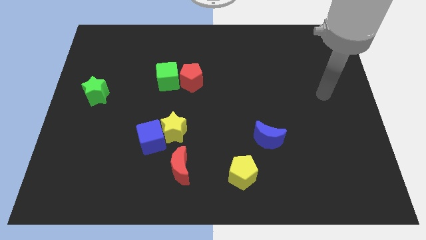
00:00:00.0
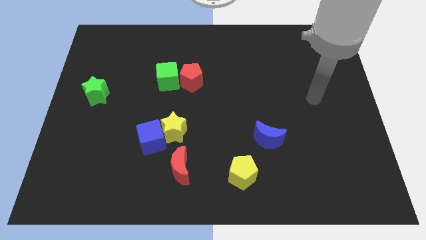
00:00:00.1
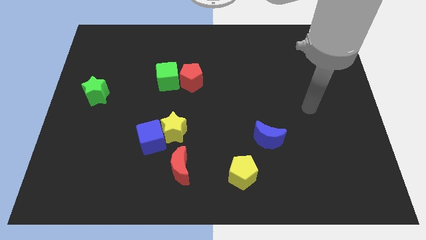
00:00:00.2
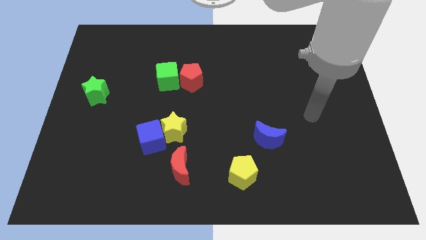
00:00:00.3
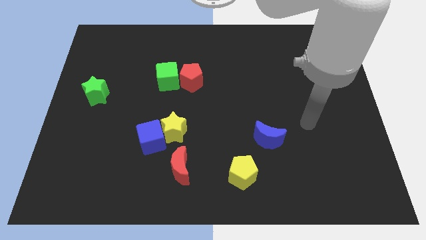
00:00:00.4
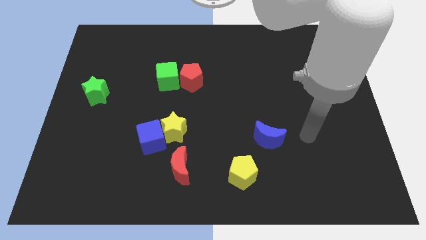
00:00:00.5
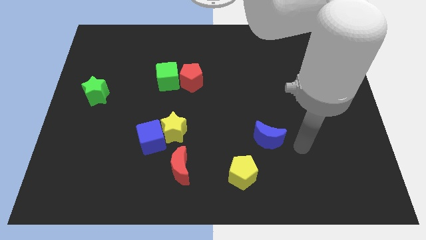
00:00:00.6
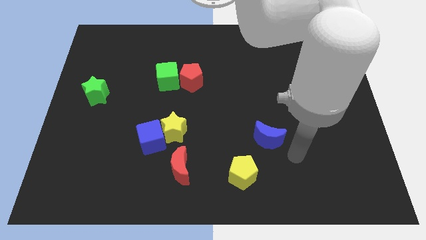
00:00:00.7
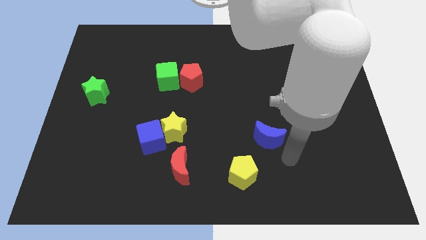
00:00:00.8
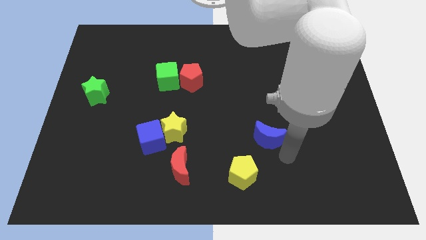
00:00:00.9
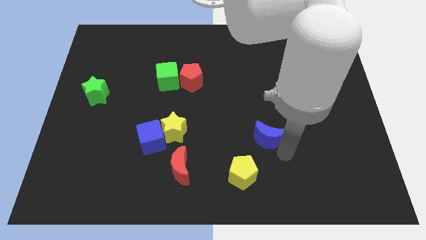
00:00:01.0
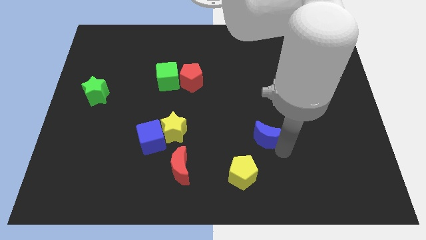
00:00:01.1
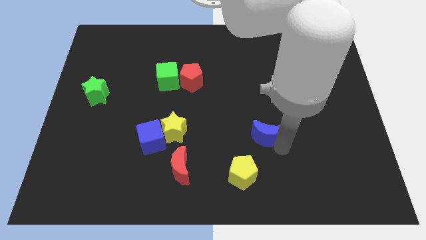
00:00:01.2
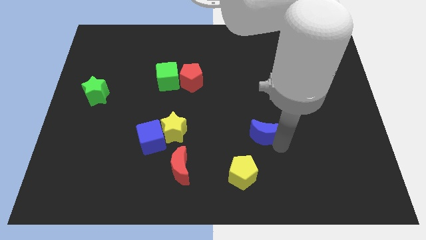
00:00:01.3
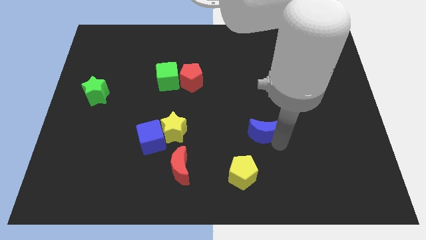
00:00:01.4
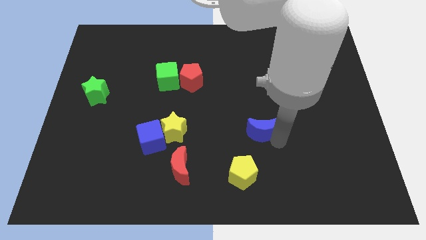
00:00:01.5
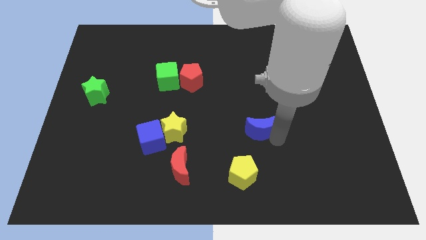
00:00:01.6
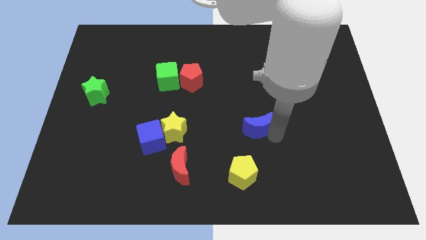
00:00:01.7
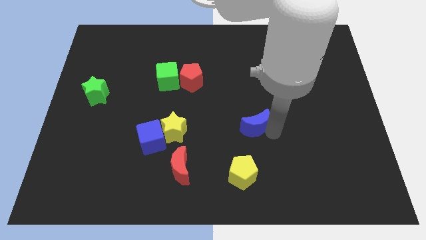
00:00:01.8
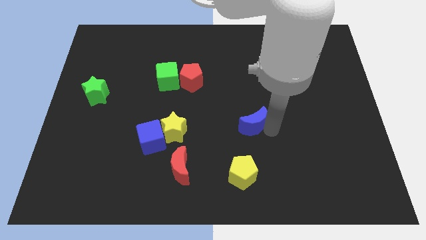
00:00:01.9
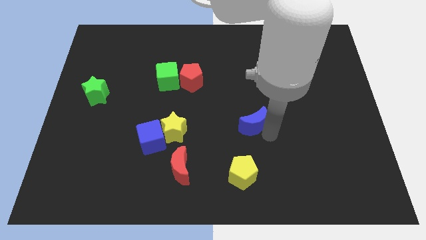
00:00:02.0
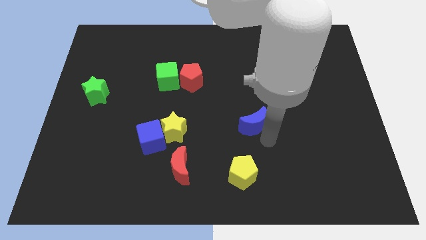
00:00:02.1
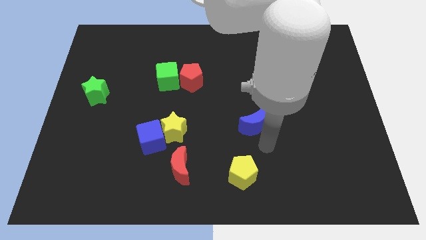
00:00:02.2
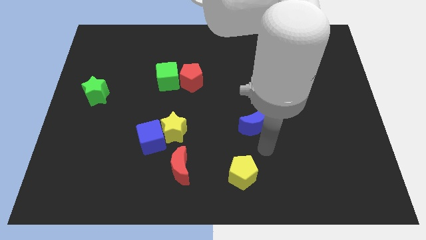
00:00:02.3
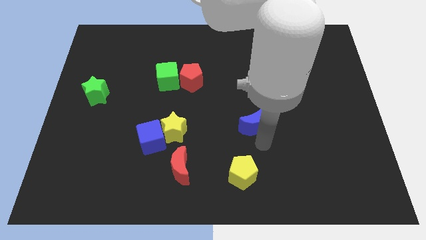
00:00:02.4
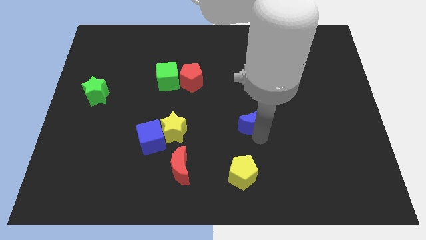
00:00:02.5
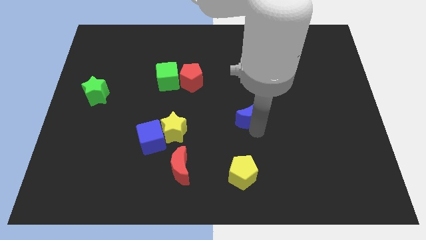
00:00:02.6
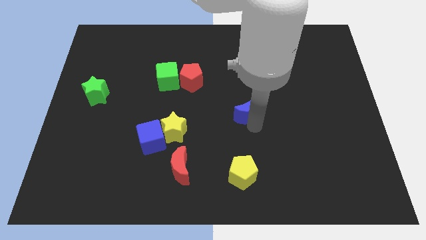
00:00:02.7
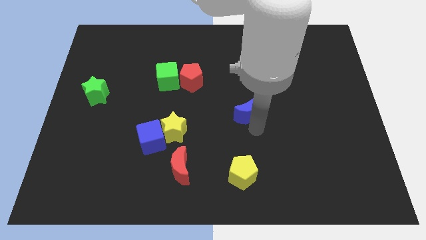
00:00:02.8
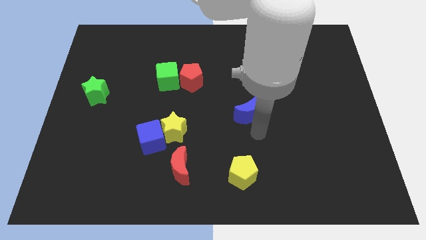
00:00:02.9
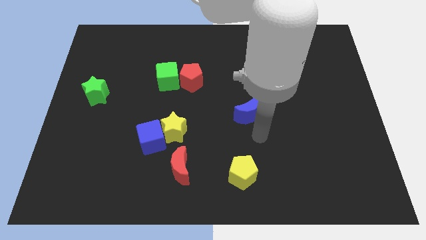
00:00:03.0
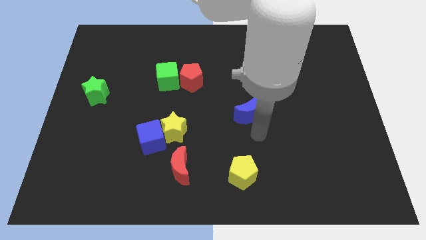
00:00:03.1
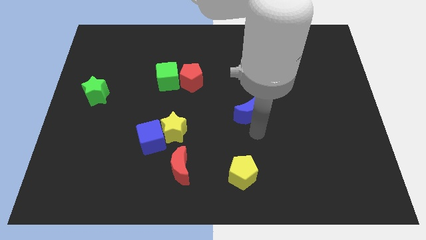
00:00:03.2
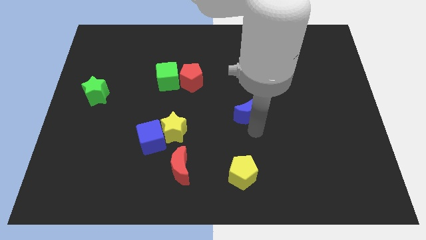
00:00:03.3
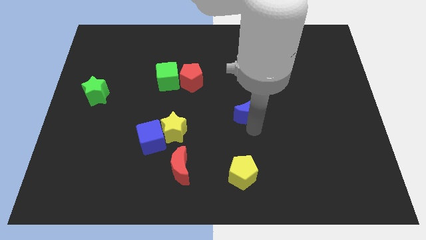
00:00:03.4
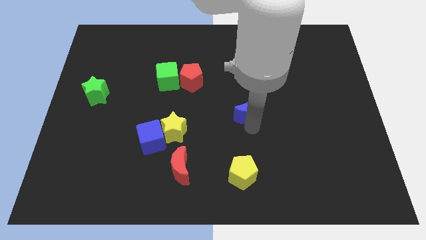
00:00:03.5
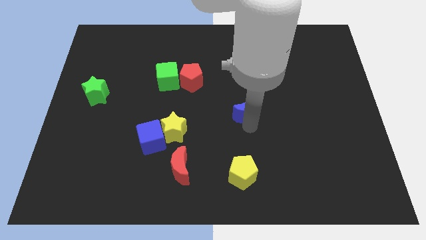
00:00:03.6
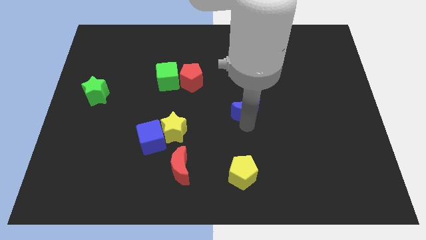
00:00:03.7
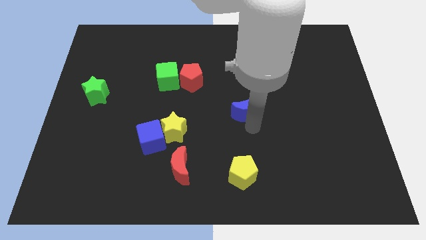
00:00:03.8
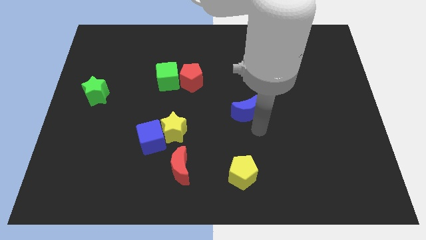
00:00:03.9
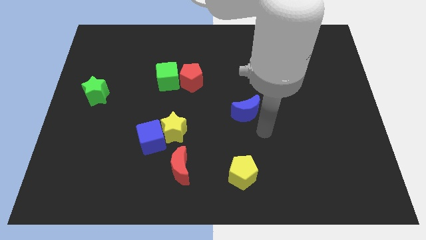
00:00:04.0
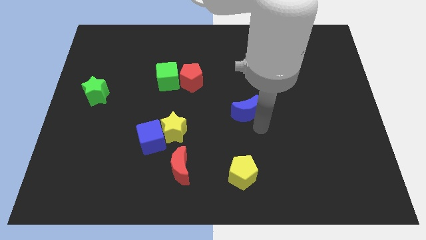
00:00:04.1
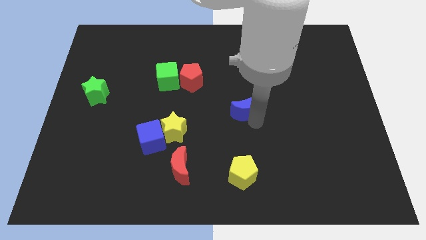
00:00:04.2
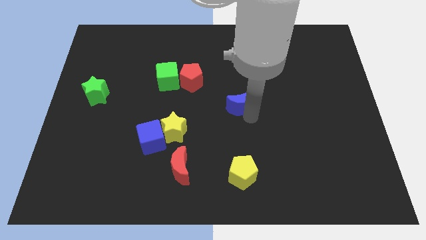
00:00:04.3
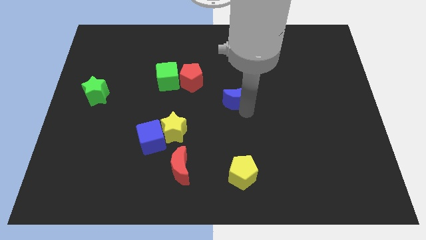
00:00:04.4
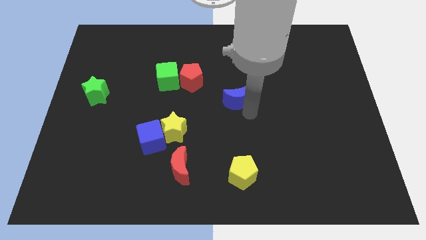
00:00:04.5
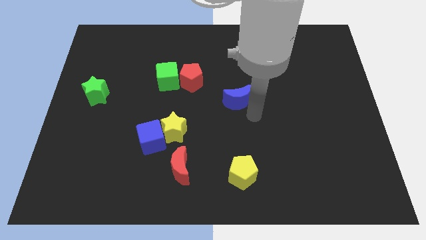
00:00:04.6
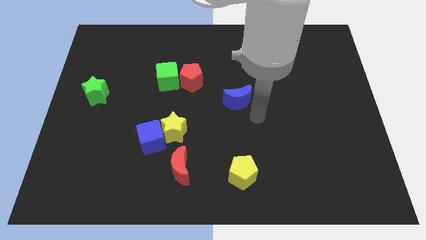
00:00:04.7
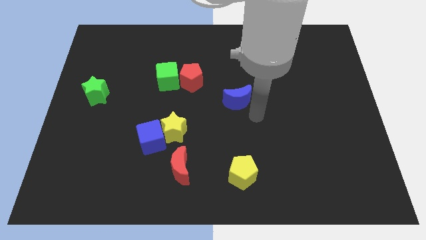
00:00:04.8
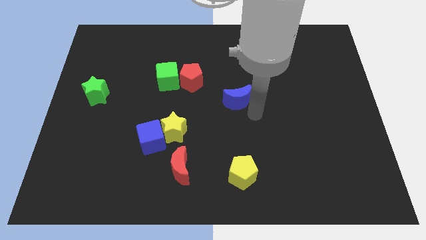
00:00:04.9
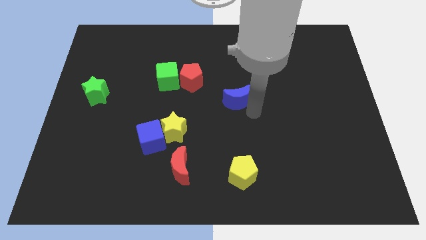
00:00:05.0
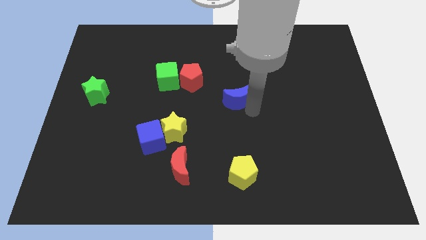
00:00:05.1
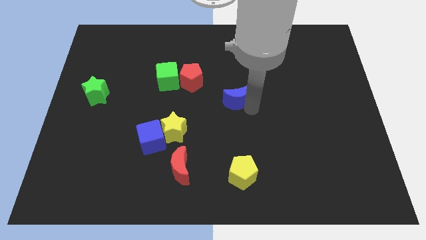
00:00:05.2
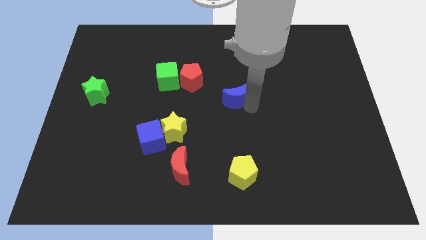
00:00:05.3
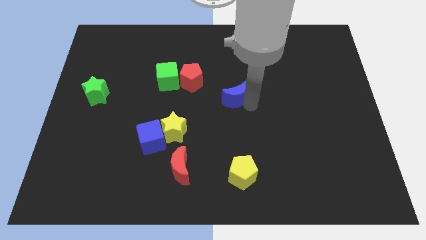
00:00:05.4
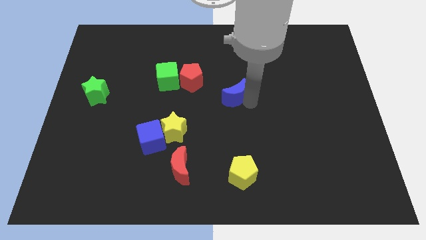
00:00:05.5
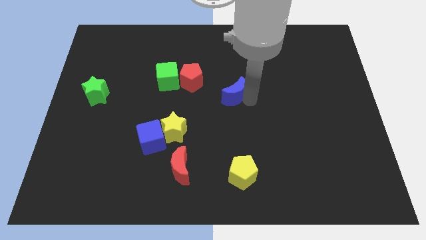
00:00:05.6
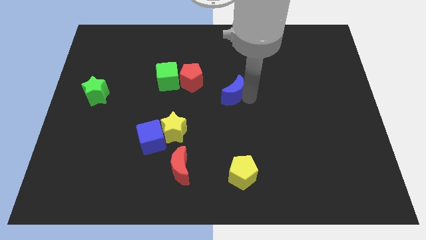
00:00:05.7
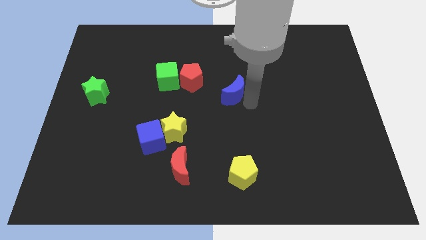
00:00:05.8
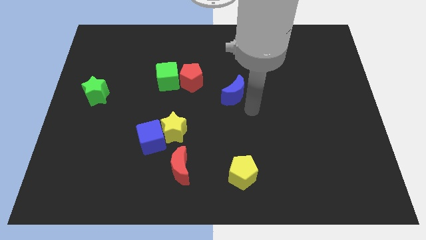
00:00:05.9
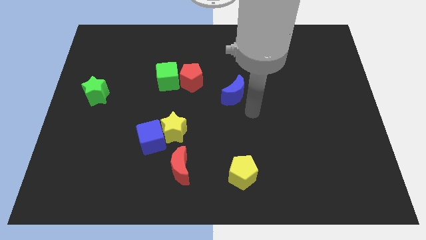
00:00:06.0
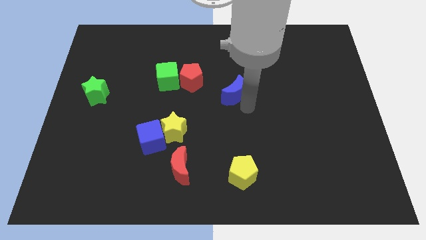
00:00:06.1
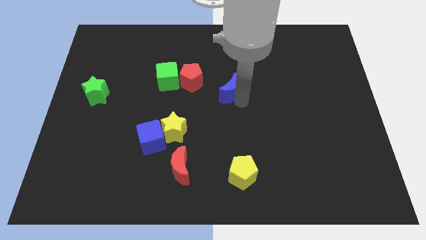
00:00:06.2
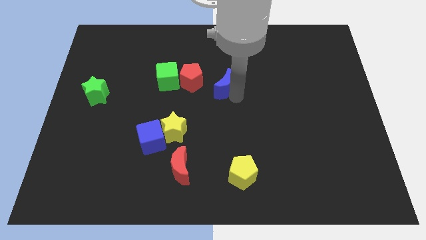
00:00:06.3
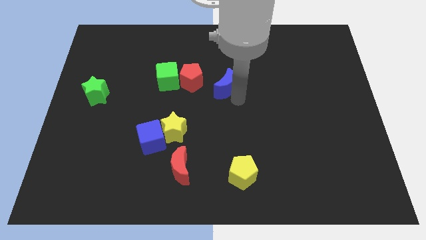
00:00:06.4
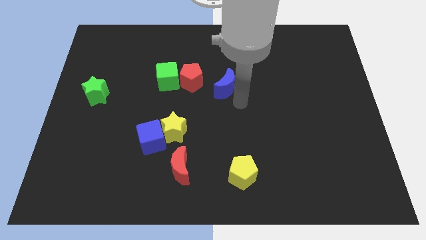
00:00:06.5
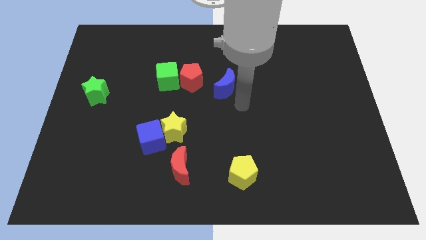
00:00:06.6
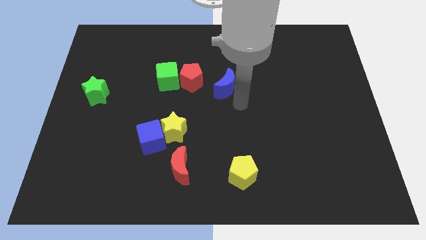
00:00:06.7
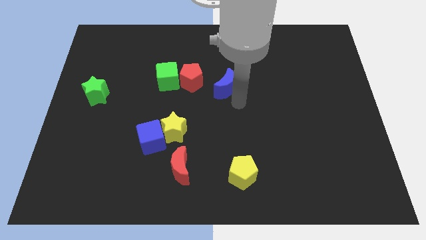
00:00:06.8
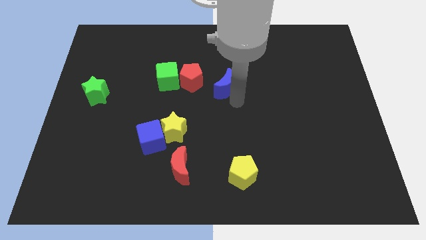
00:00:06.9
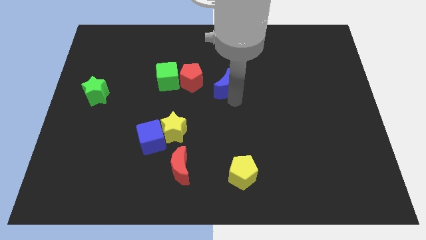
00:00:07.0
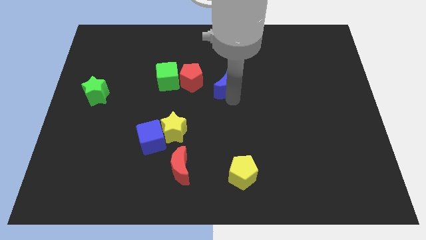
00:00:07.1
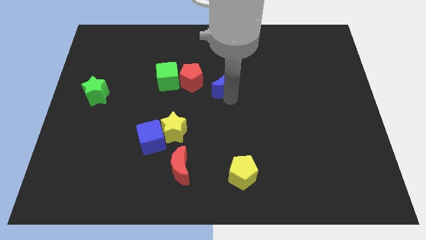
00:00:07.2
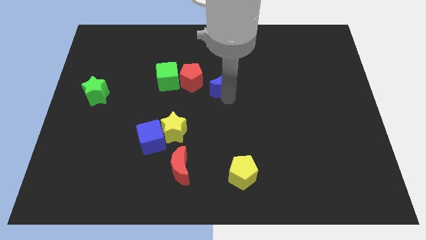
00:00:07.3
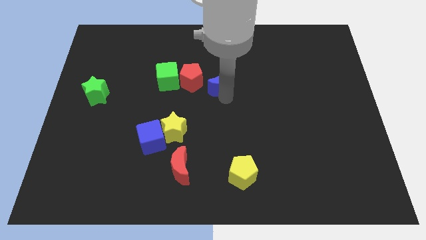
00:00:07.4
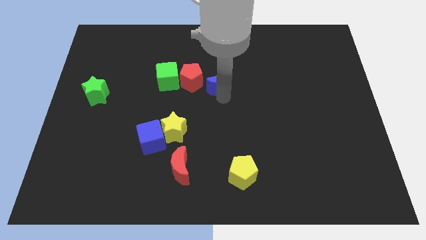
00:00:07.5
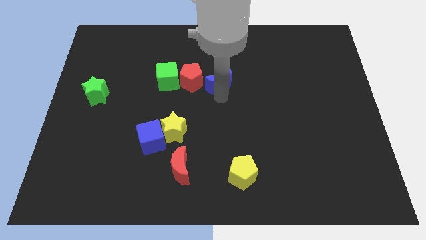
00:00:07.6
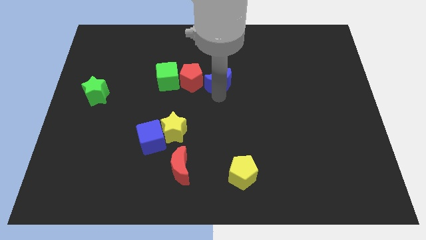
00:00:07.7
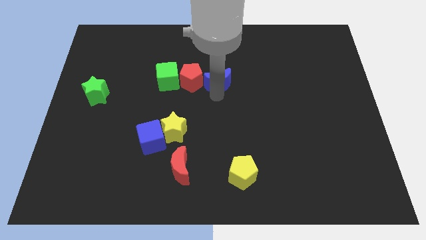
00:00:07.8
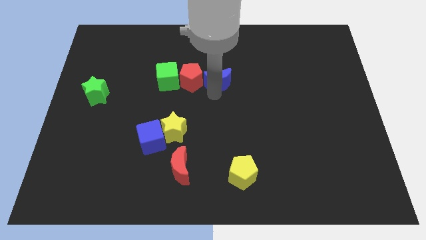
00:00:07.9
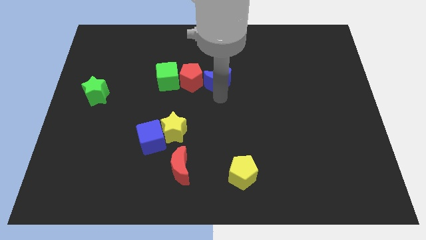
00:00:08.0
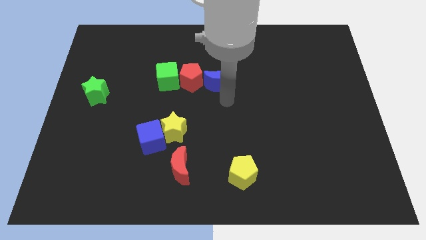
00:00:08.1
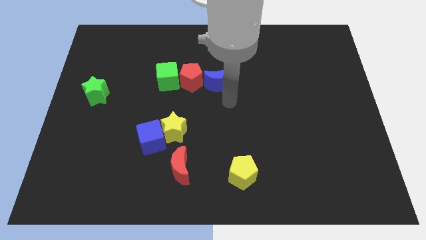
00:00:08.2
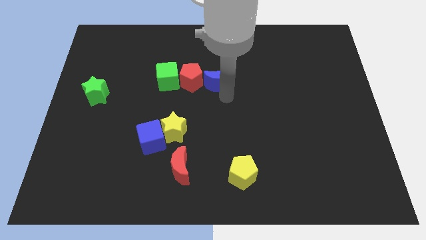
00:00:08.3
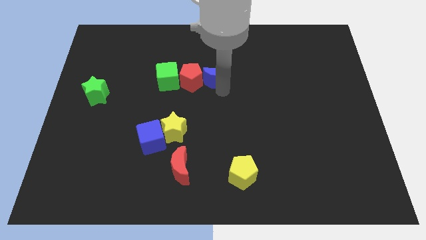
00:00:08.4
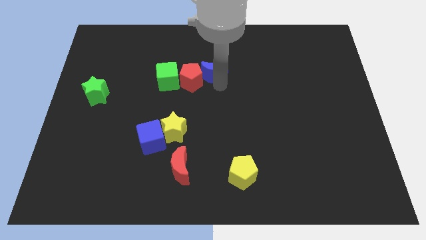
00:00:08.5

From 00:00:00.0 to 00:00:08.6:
move the blue moon diagonally up and left
